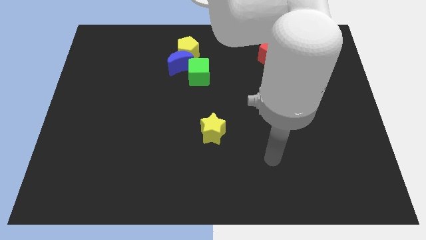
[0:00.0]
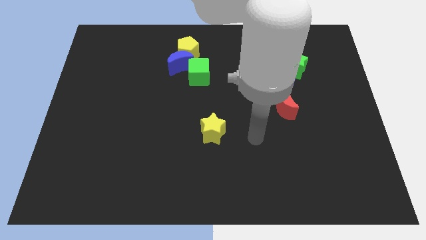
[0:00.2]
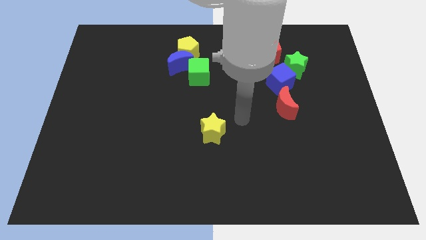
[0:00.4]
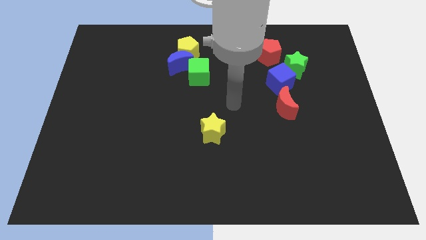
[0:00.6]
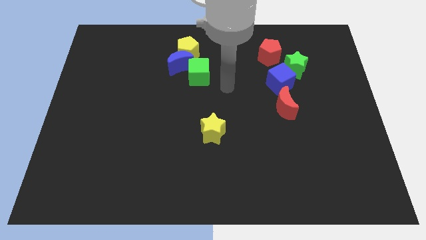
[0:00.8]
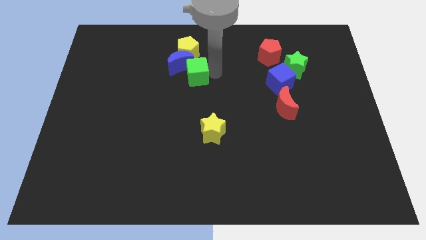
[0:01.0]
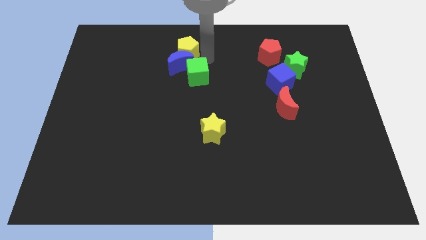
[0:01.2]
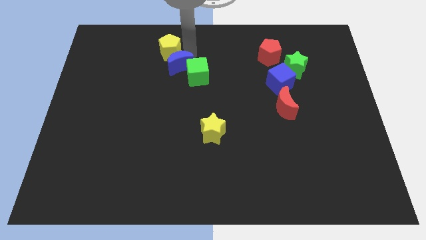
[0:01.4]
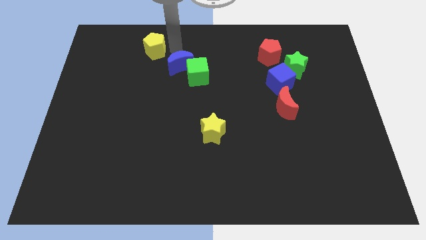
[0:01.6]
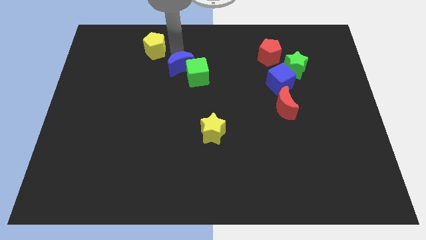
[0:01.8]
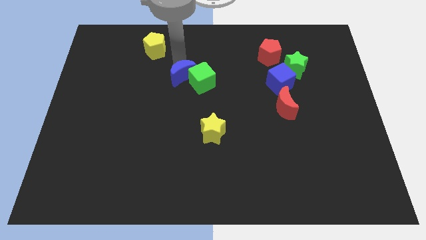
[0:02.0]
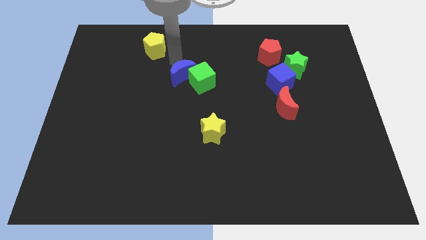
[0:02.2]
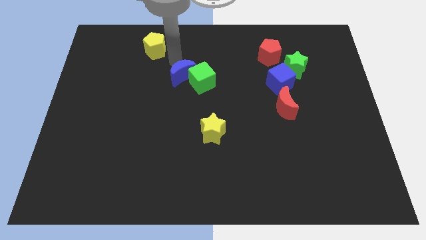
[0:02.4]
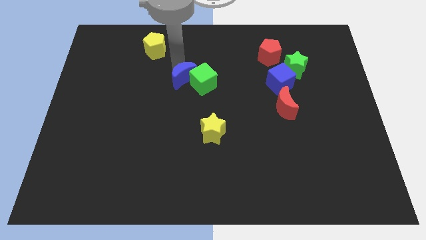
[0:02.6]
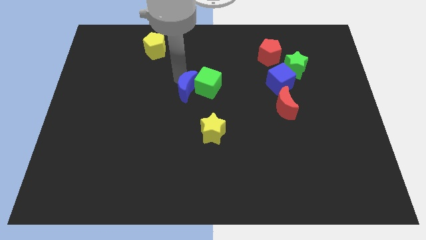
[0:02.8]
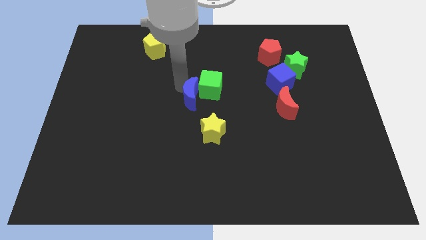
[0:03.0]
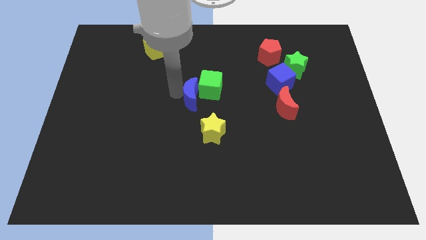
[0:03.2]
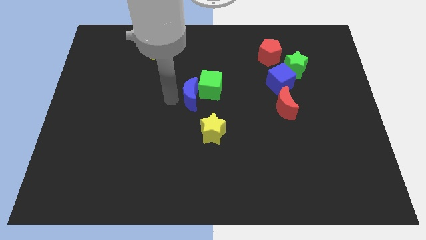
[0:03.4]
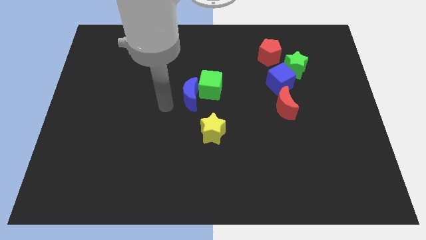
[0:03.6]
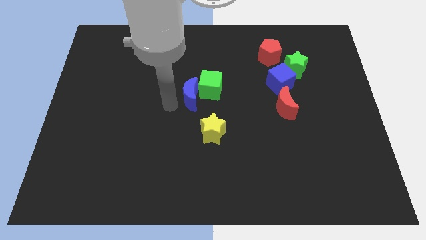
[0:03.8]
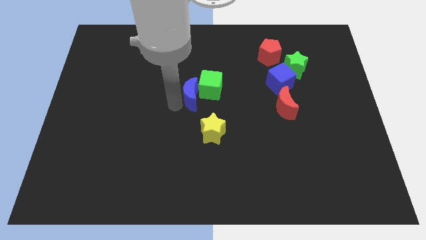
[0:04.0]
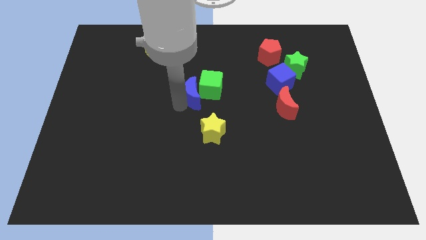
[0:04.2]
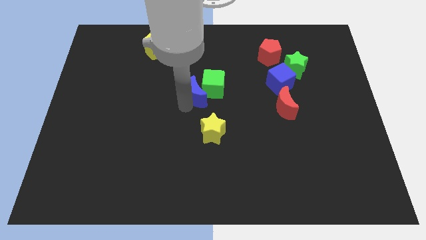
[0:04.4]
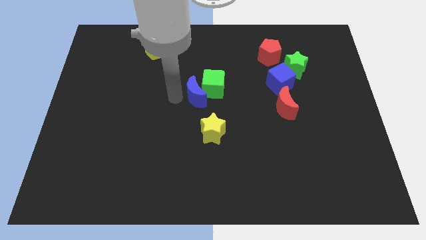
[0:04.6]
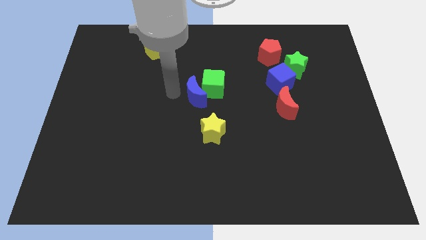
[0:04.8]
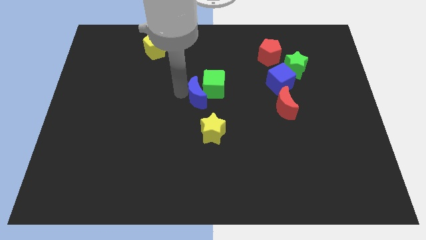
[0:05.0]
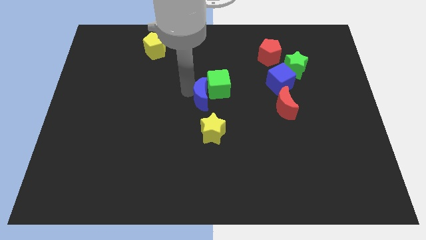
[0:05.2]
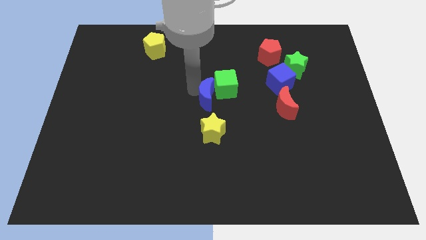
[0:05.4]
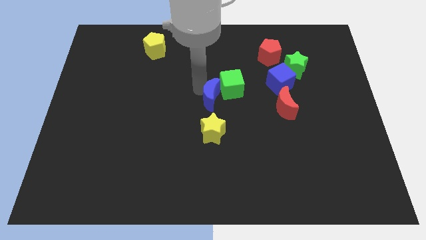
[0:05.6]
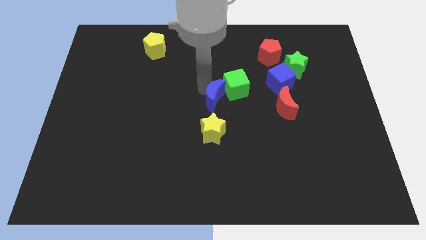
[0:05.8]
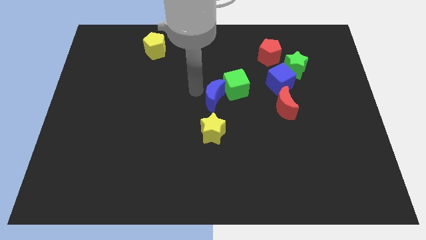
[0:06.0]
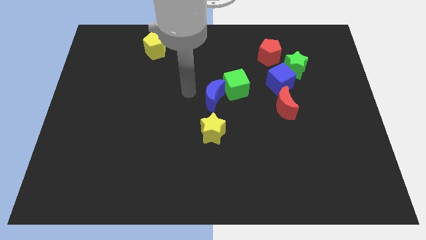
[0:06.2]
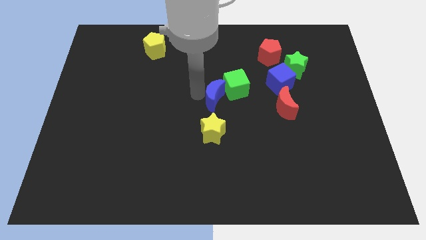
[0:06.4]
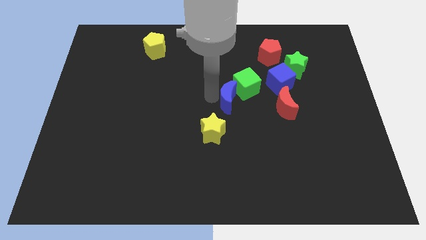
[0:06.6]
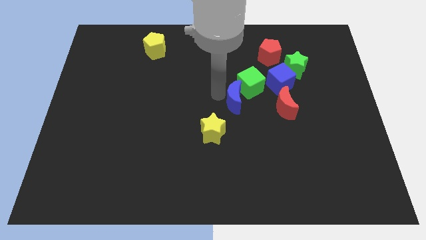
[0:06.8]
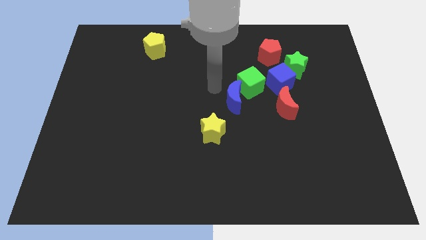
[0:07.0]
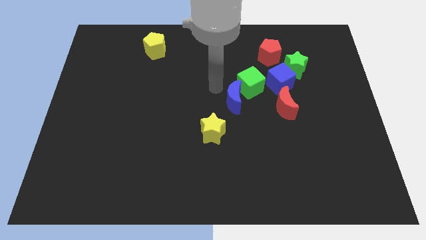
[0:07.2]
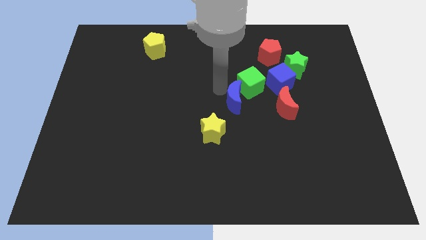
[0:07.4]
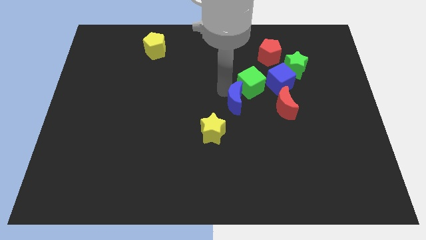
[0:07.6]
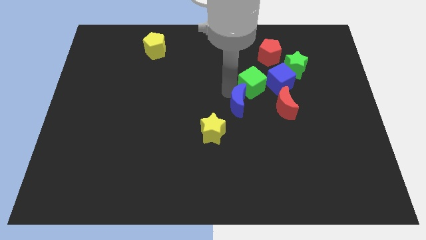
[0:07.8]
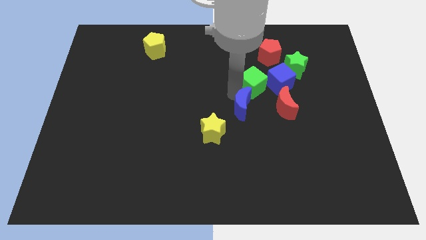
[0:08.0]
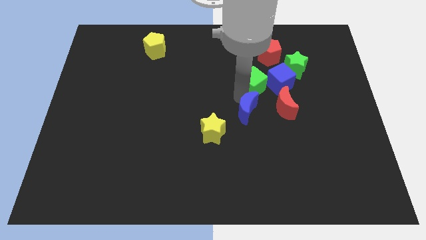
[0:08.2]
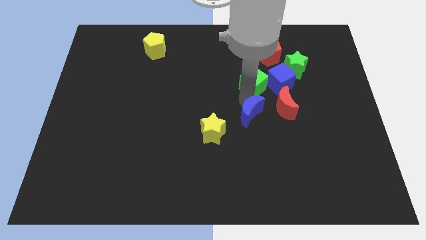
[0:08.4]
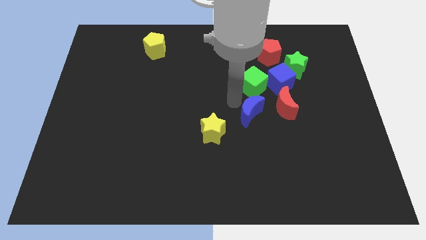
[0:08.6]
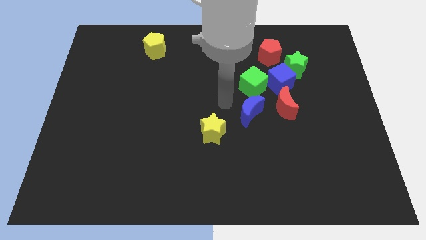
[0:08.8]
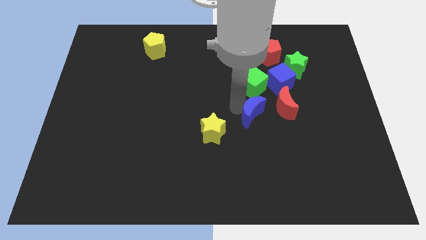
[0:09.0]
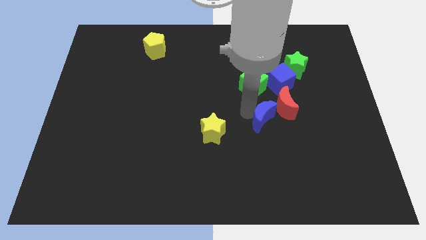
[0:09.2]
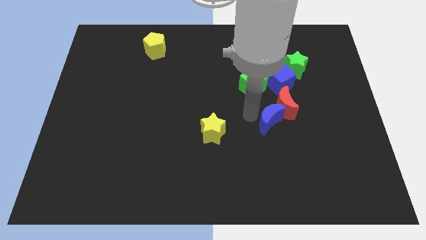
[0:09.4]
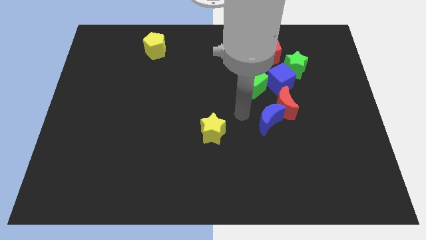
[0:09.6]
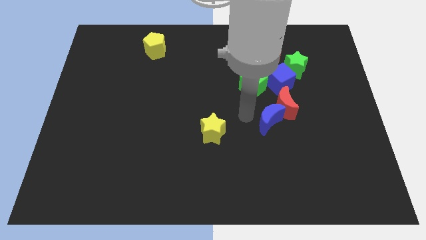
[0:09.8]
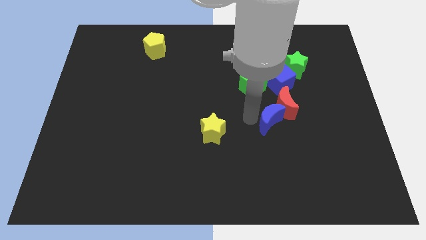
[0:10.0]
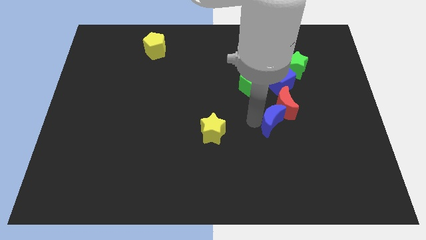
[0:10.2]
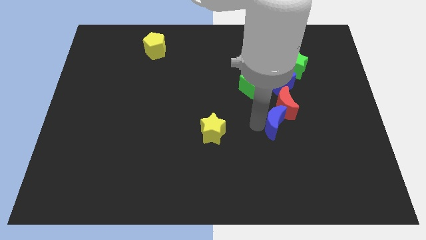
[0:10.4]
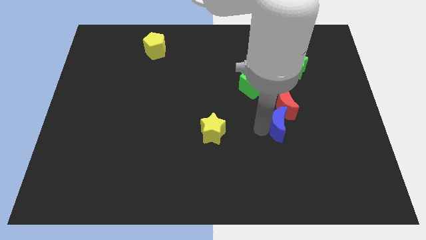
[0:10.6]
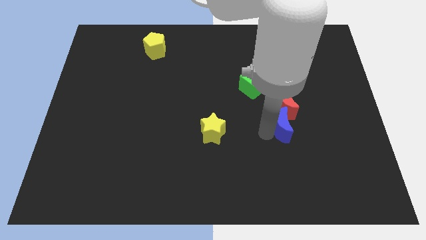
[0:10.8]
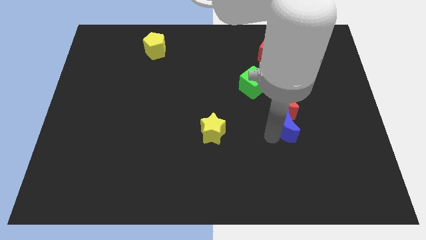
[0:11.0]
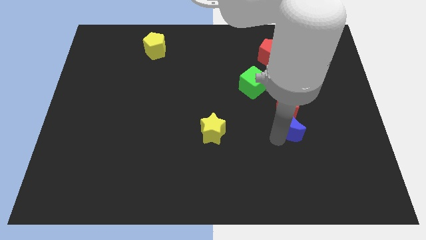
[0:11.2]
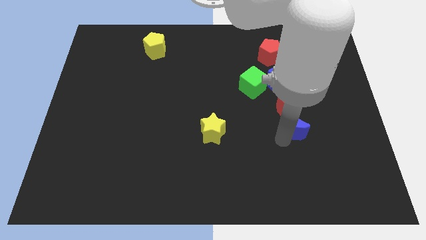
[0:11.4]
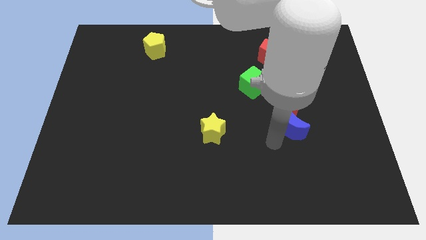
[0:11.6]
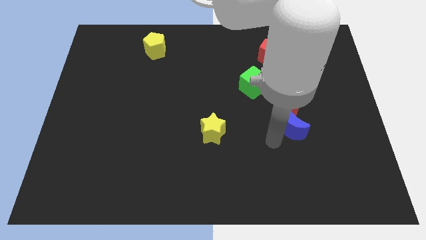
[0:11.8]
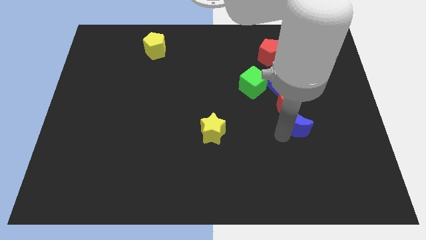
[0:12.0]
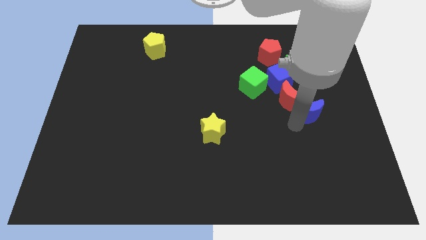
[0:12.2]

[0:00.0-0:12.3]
move the blue moon to the right of the red moon
